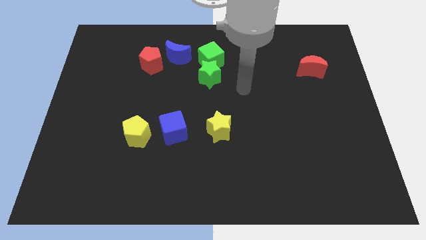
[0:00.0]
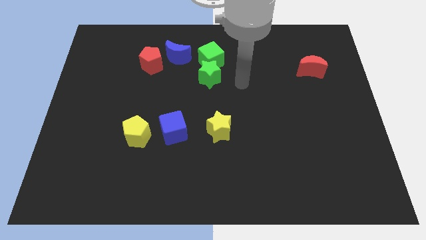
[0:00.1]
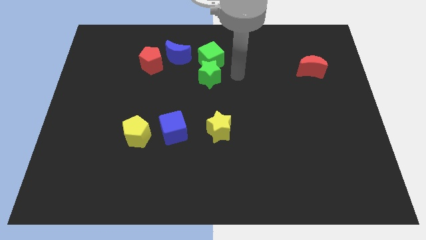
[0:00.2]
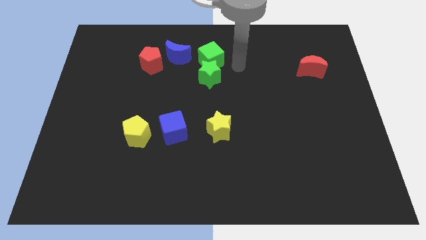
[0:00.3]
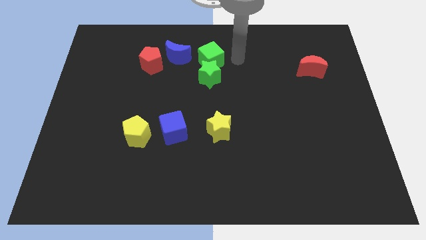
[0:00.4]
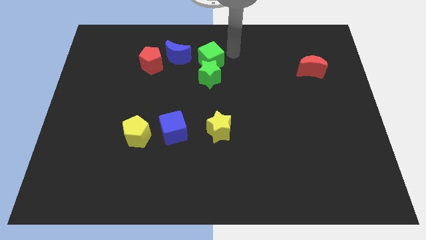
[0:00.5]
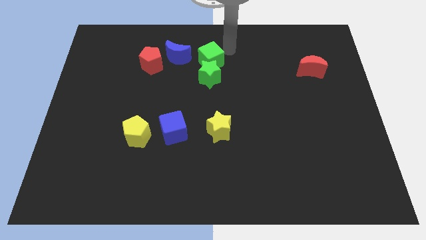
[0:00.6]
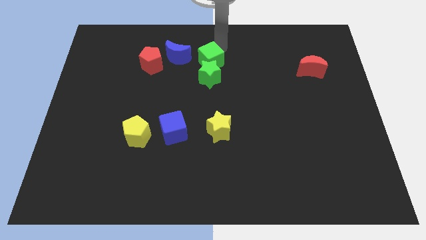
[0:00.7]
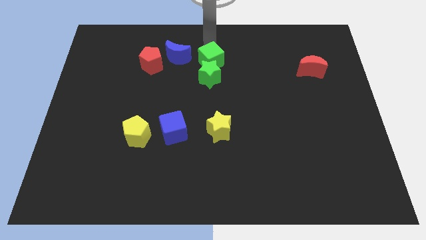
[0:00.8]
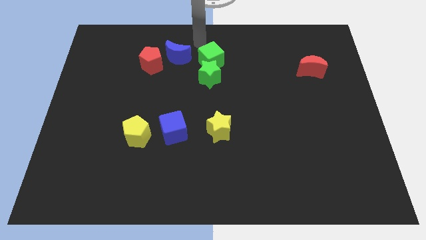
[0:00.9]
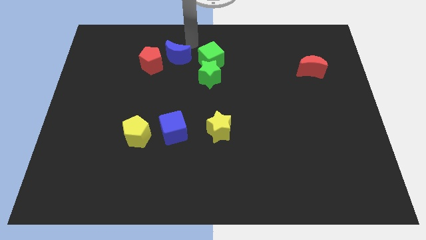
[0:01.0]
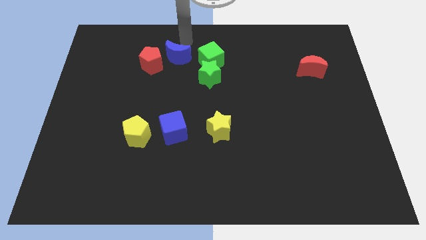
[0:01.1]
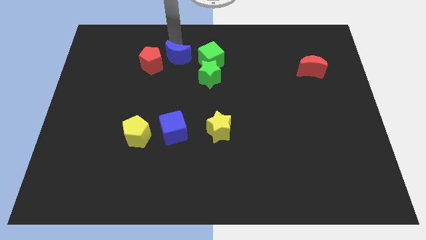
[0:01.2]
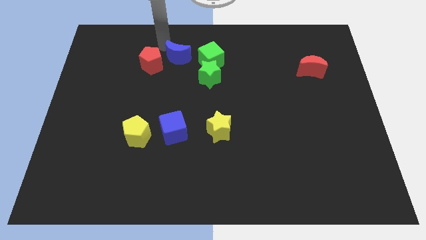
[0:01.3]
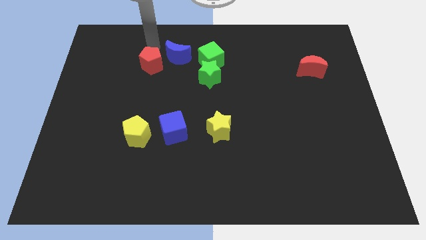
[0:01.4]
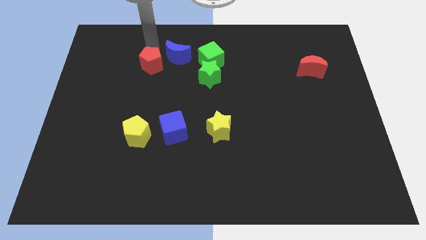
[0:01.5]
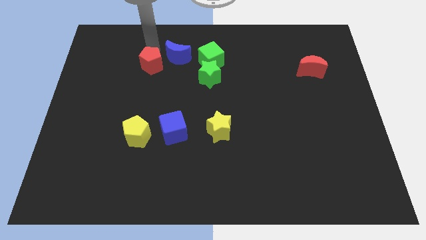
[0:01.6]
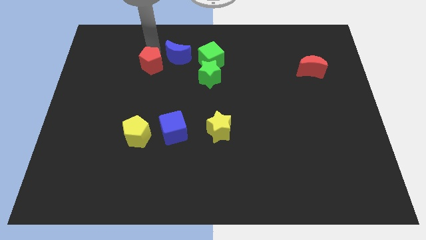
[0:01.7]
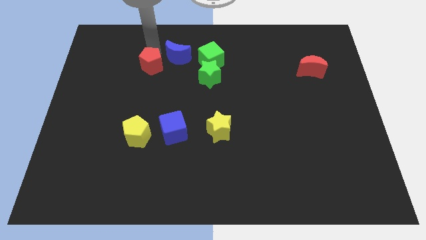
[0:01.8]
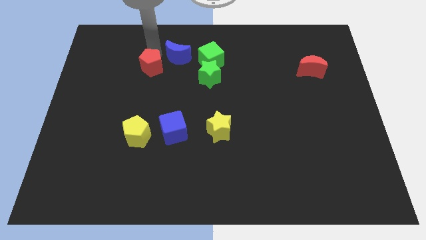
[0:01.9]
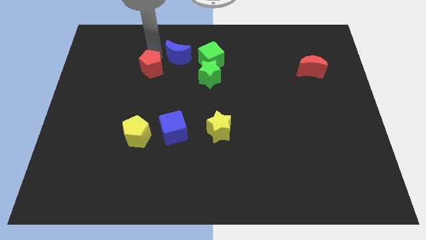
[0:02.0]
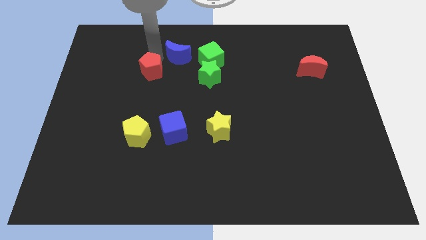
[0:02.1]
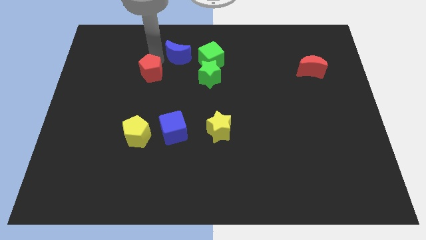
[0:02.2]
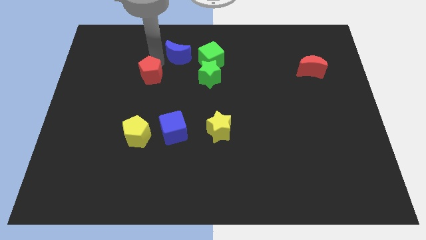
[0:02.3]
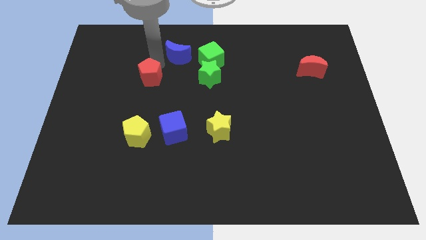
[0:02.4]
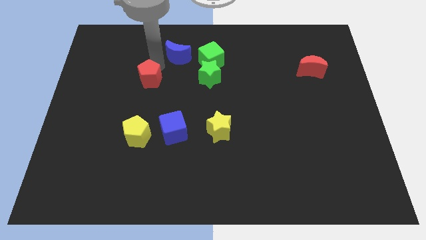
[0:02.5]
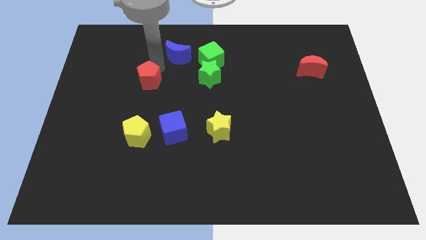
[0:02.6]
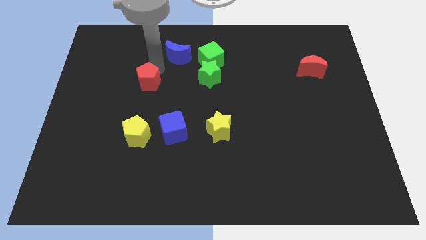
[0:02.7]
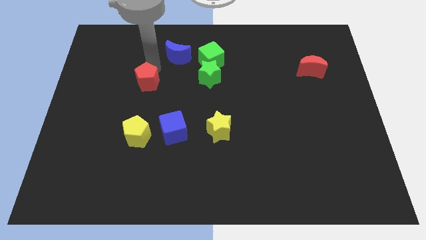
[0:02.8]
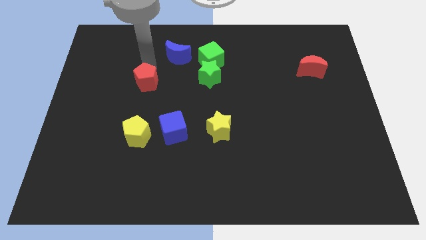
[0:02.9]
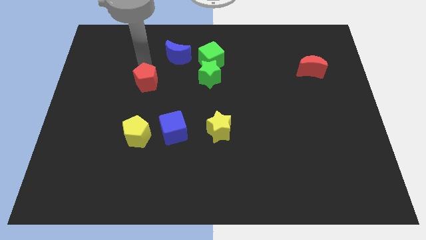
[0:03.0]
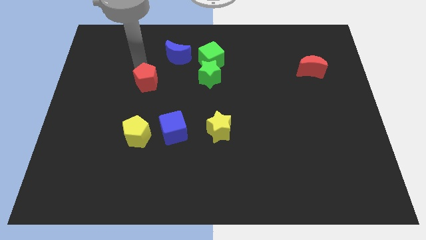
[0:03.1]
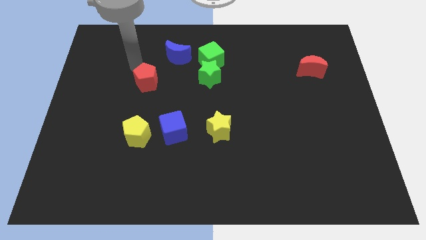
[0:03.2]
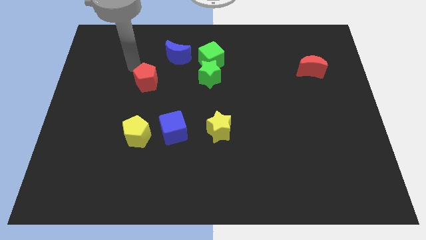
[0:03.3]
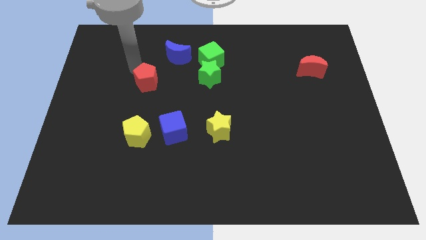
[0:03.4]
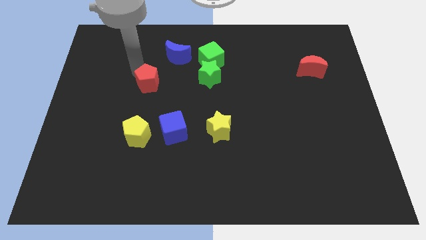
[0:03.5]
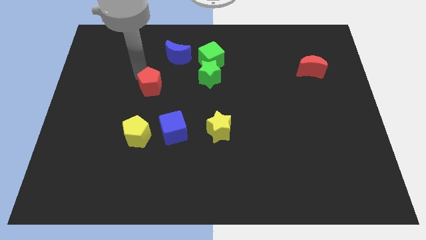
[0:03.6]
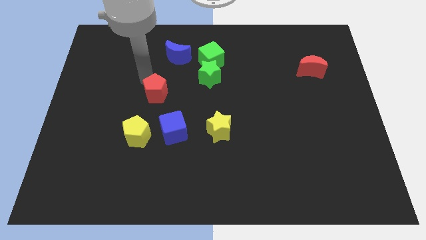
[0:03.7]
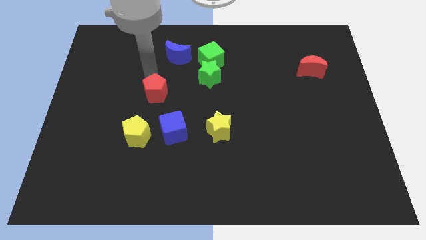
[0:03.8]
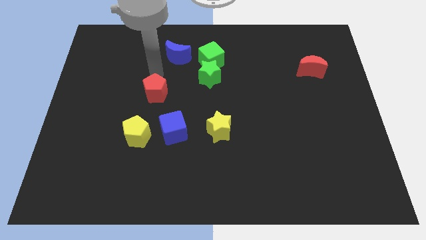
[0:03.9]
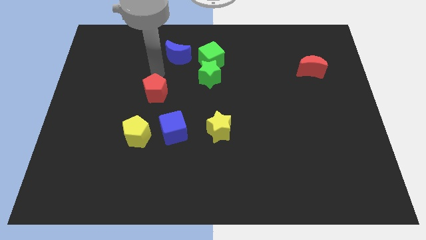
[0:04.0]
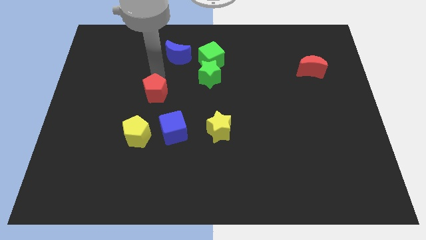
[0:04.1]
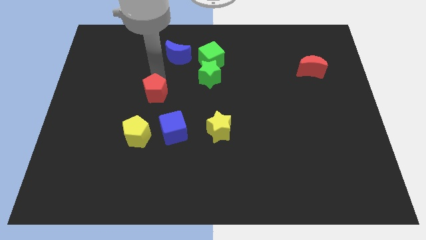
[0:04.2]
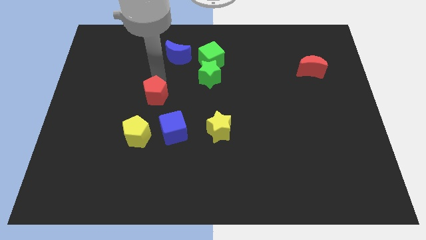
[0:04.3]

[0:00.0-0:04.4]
put the red pentagon to the top left side of the blue cube

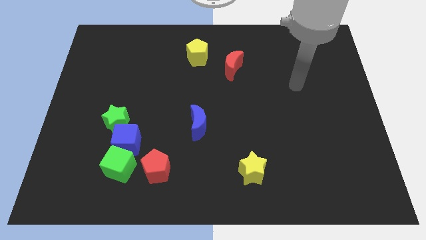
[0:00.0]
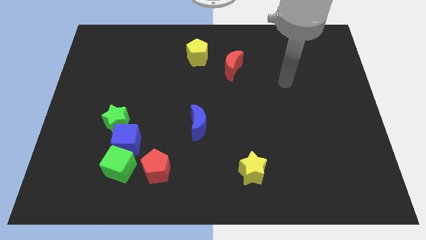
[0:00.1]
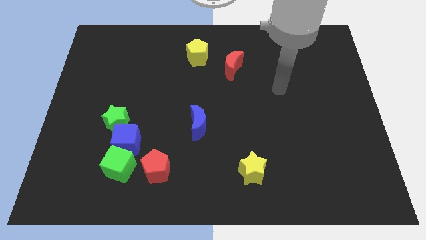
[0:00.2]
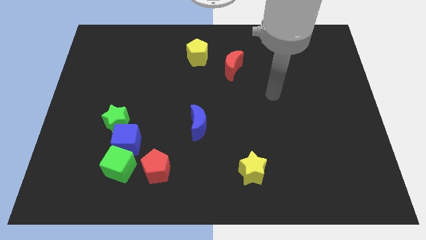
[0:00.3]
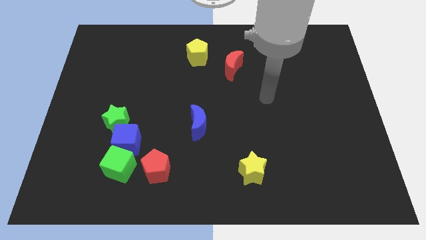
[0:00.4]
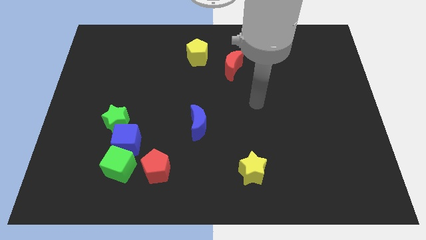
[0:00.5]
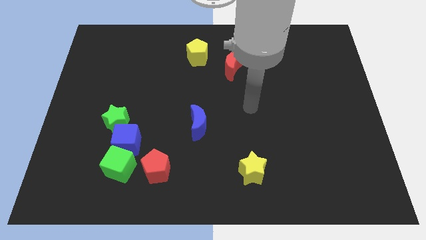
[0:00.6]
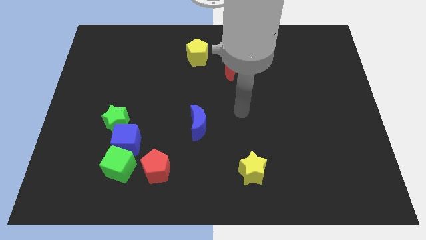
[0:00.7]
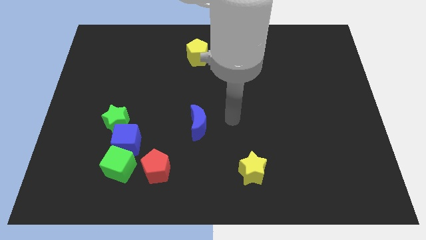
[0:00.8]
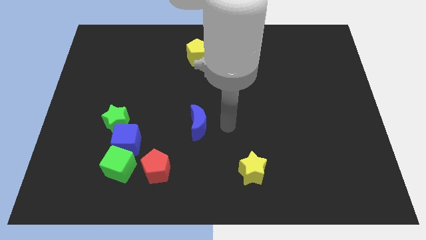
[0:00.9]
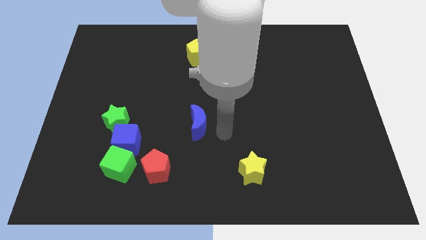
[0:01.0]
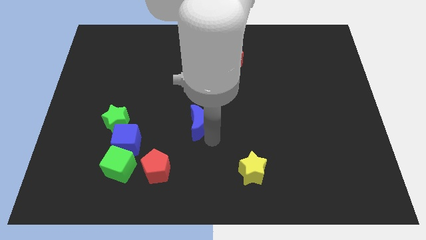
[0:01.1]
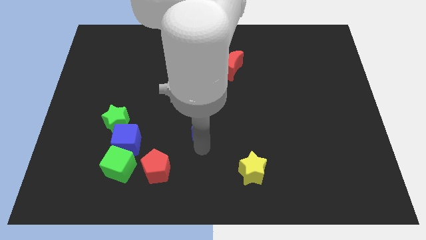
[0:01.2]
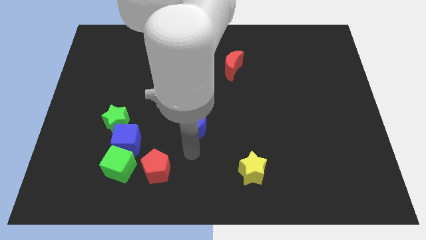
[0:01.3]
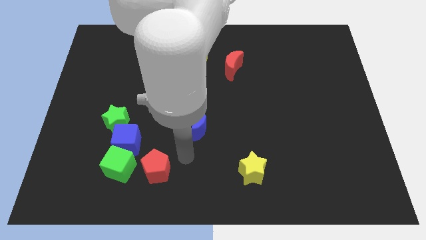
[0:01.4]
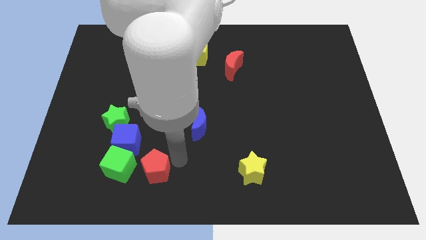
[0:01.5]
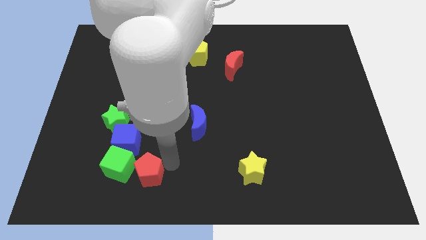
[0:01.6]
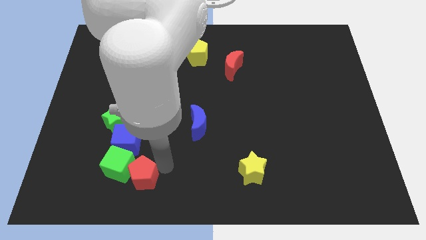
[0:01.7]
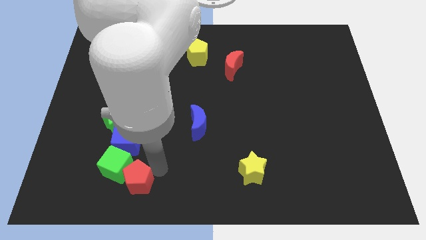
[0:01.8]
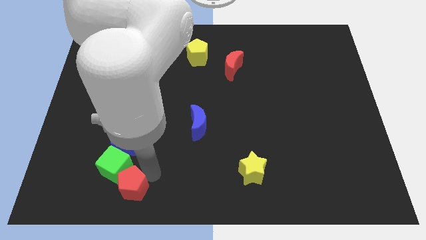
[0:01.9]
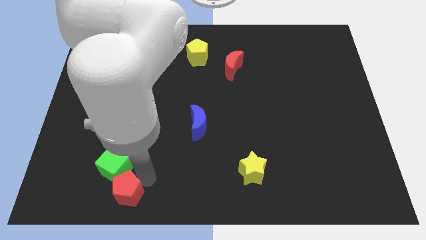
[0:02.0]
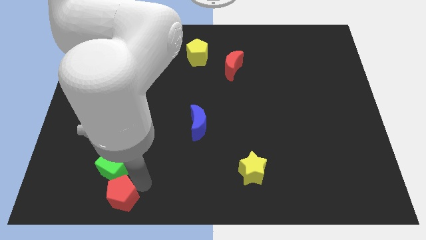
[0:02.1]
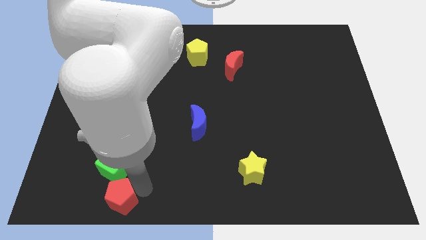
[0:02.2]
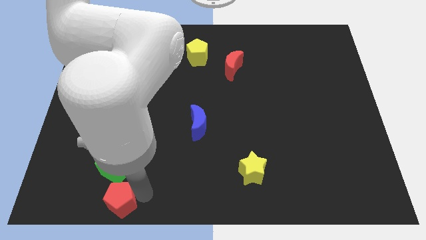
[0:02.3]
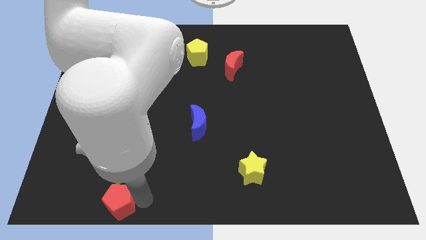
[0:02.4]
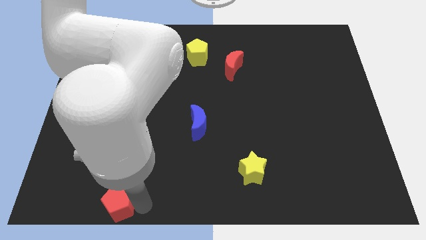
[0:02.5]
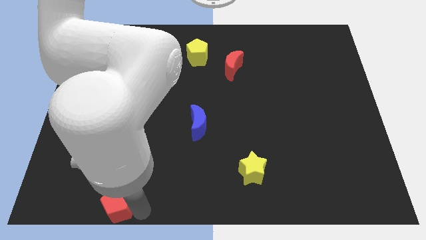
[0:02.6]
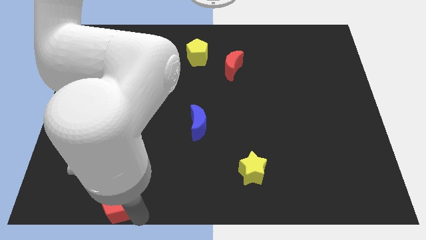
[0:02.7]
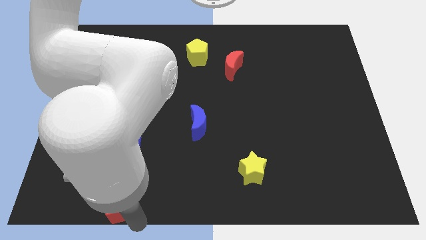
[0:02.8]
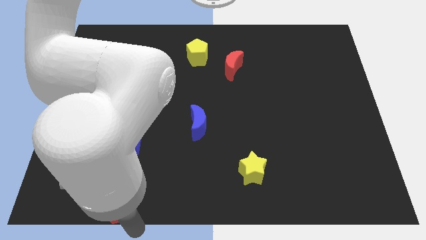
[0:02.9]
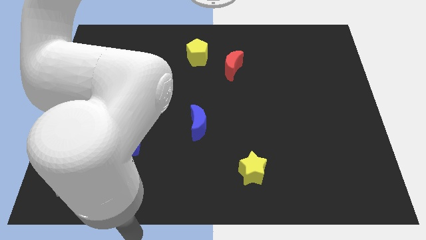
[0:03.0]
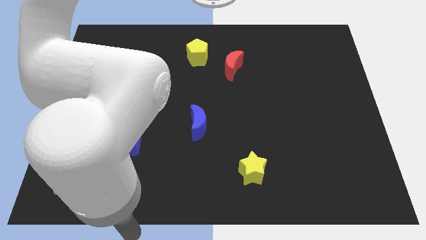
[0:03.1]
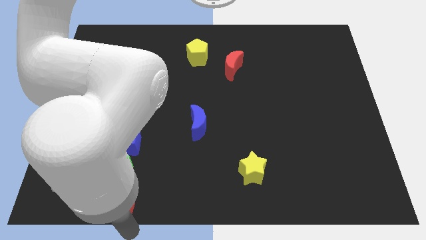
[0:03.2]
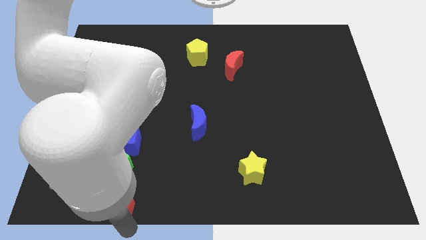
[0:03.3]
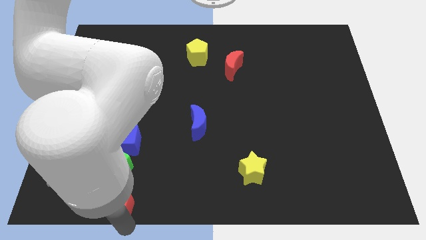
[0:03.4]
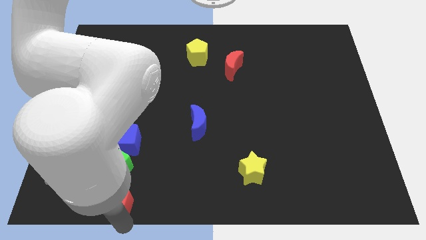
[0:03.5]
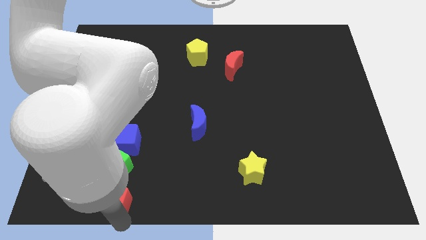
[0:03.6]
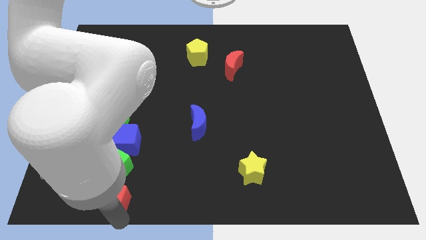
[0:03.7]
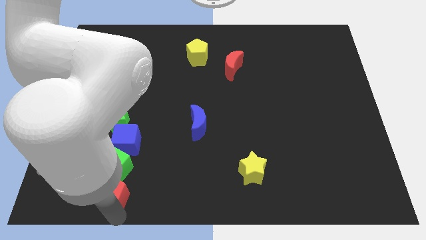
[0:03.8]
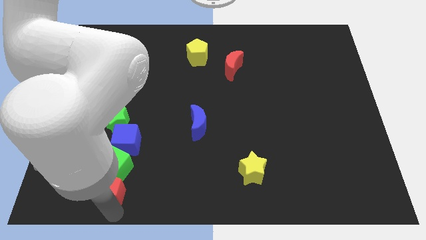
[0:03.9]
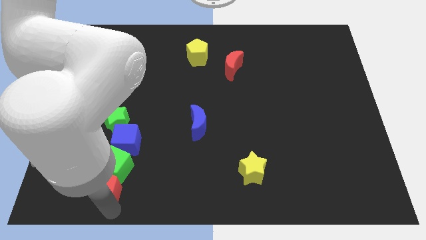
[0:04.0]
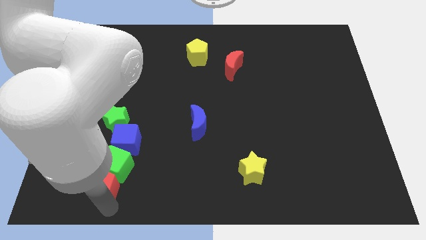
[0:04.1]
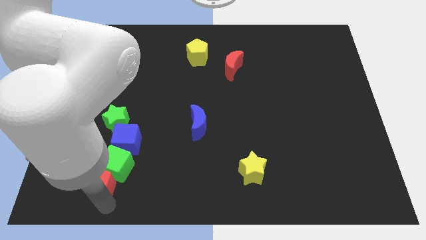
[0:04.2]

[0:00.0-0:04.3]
move the red pentagon to the bottom left side of the blue cube
